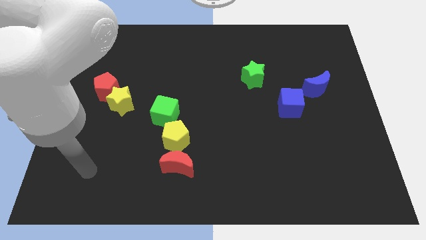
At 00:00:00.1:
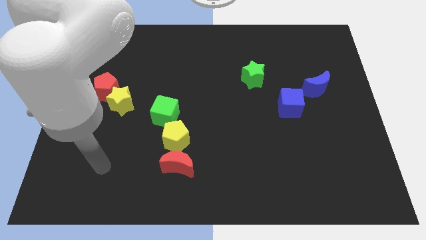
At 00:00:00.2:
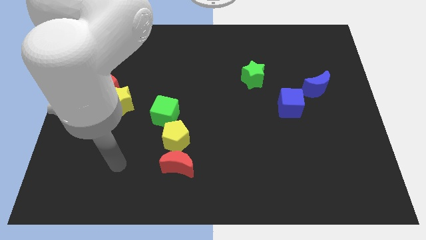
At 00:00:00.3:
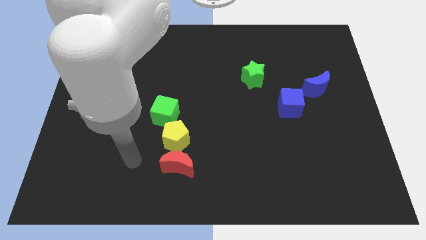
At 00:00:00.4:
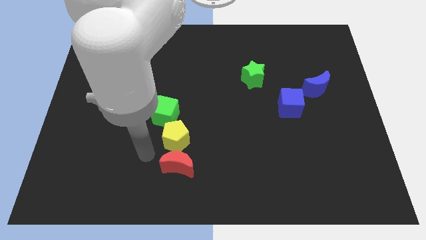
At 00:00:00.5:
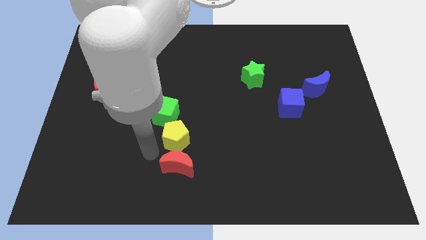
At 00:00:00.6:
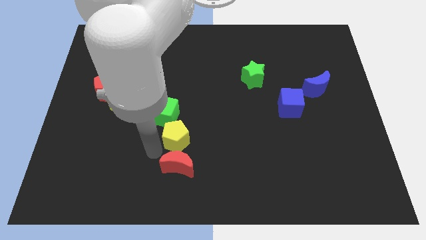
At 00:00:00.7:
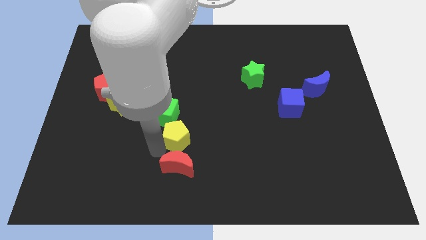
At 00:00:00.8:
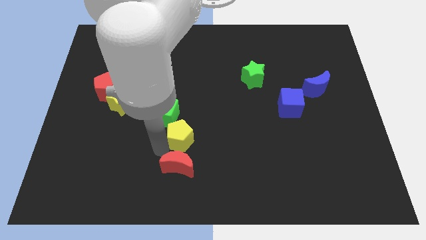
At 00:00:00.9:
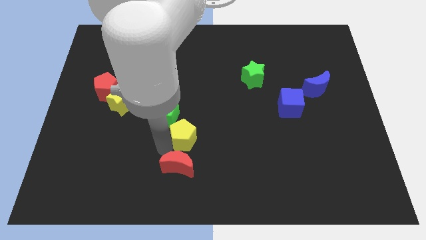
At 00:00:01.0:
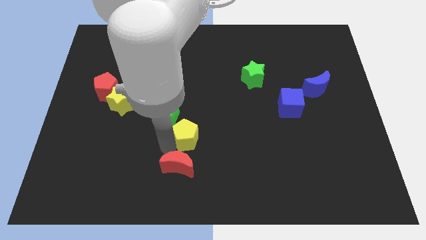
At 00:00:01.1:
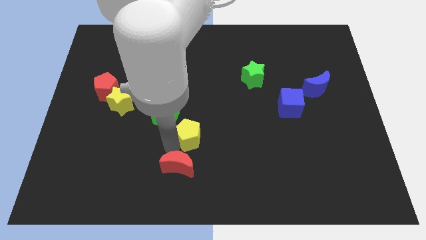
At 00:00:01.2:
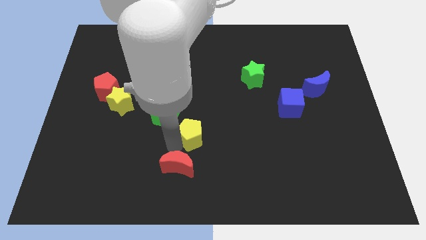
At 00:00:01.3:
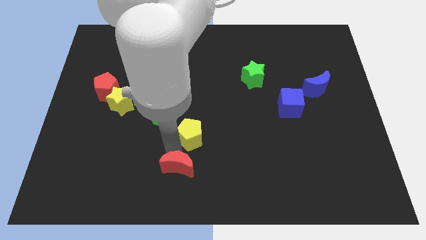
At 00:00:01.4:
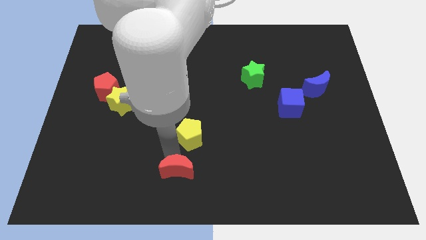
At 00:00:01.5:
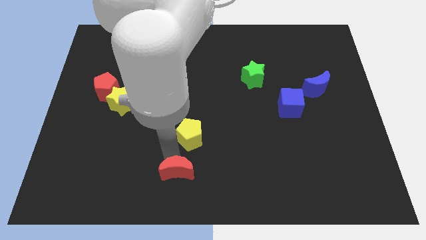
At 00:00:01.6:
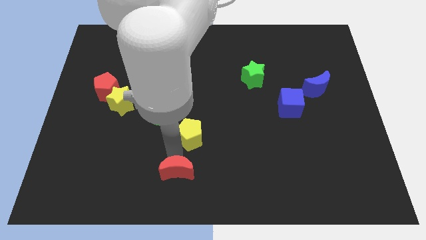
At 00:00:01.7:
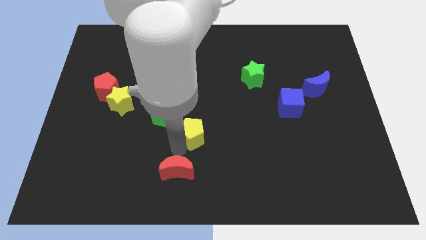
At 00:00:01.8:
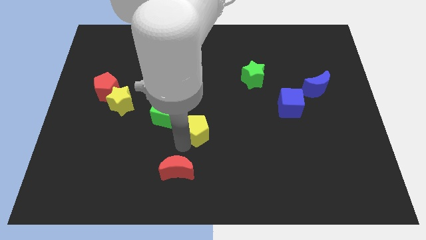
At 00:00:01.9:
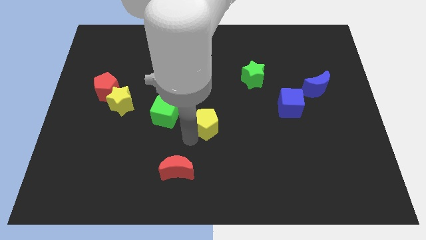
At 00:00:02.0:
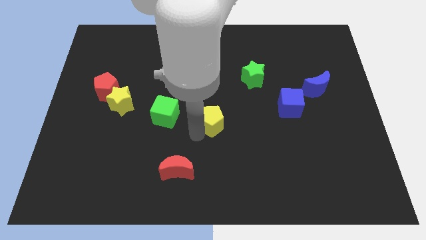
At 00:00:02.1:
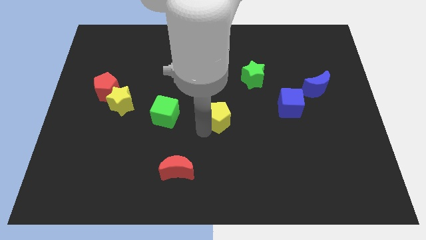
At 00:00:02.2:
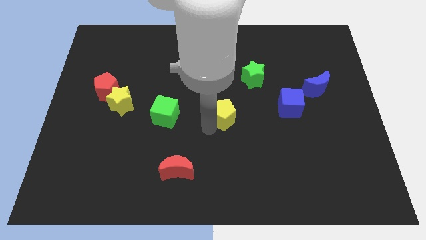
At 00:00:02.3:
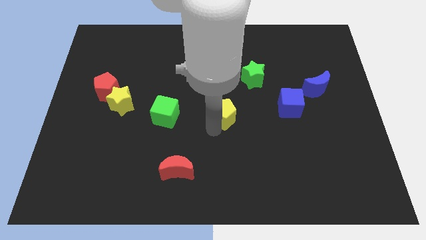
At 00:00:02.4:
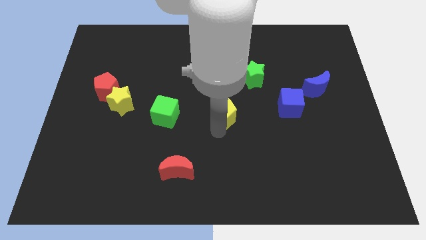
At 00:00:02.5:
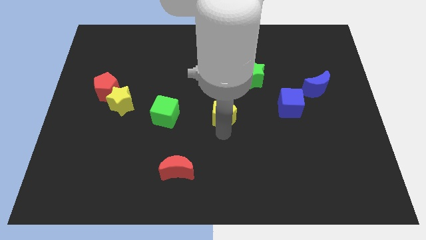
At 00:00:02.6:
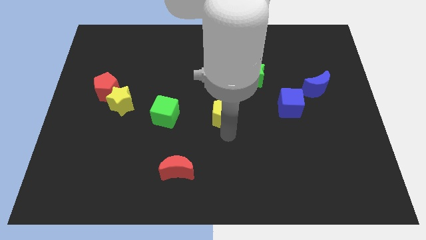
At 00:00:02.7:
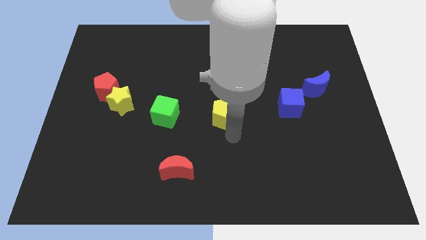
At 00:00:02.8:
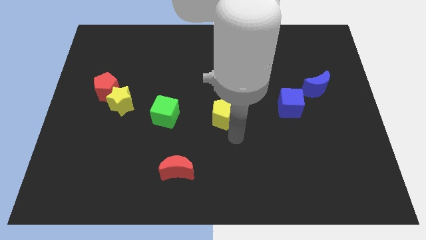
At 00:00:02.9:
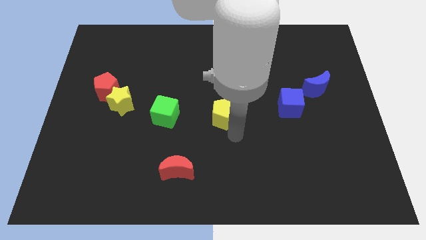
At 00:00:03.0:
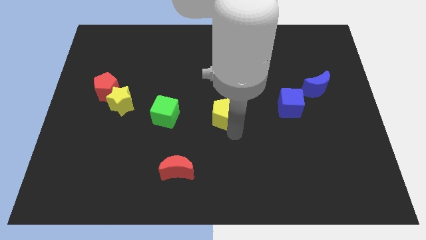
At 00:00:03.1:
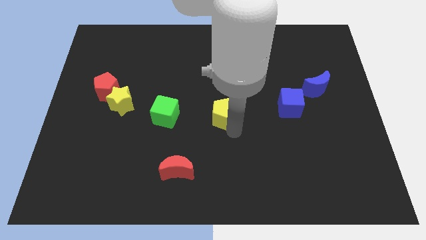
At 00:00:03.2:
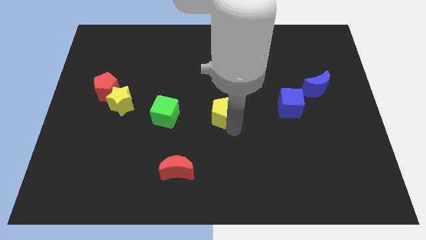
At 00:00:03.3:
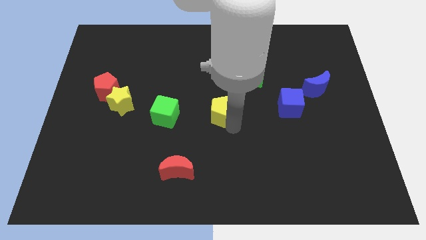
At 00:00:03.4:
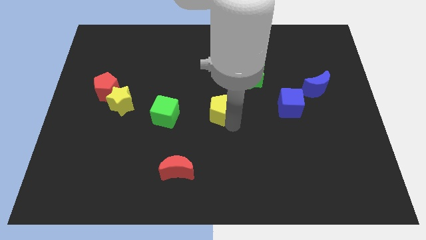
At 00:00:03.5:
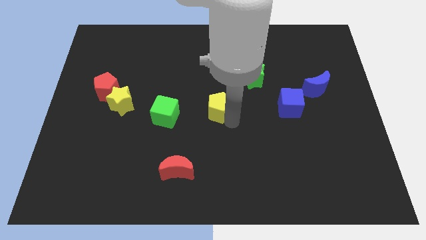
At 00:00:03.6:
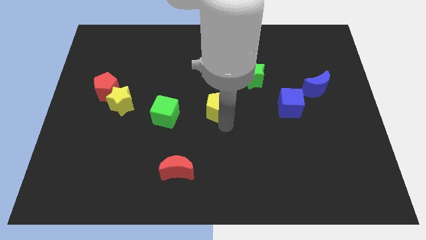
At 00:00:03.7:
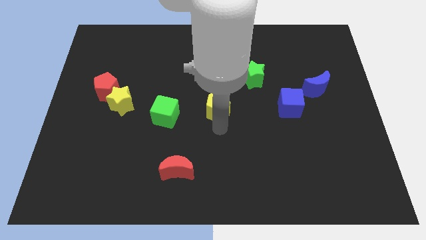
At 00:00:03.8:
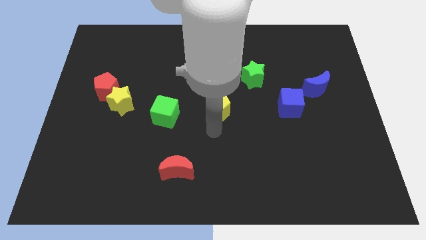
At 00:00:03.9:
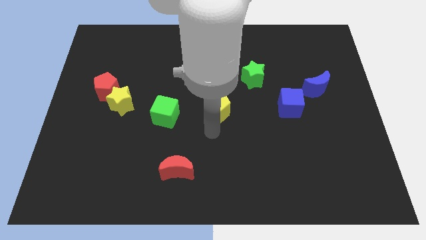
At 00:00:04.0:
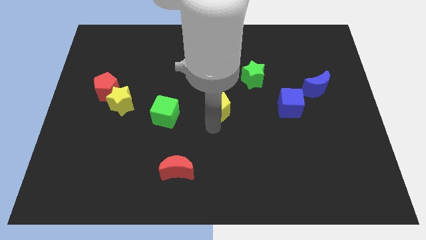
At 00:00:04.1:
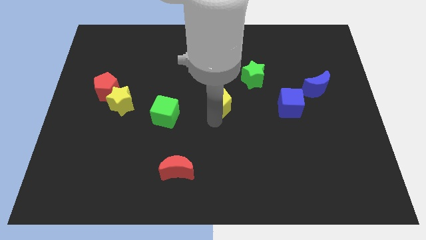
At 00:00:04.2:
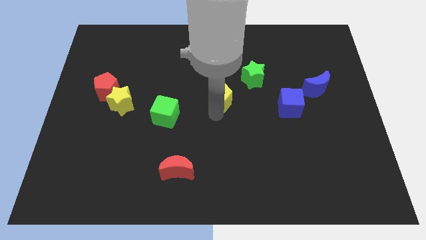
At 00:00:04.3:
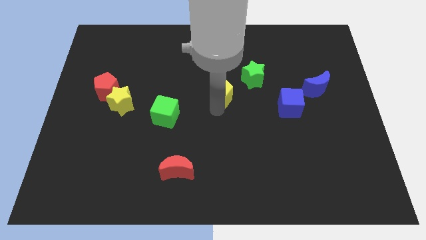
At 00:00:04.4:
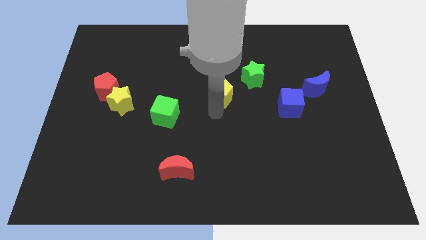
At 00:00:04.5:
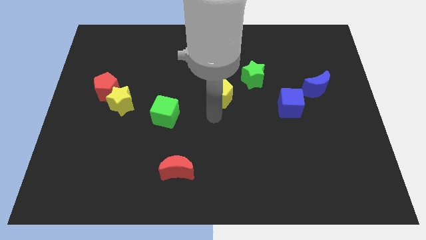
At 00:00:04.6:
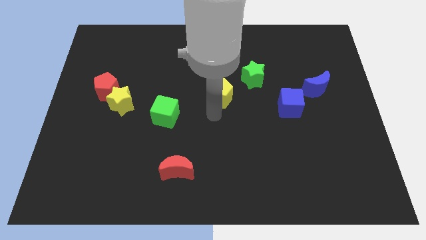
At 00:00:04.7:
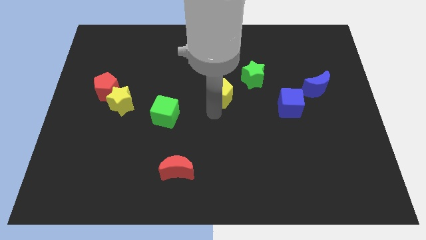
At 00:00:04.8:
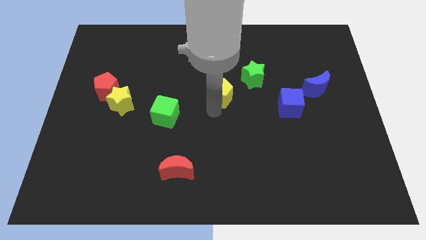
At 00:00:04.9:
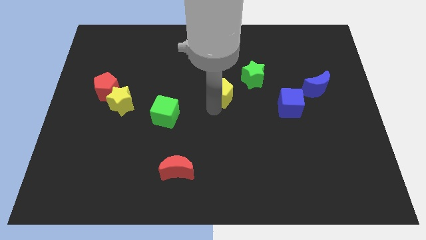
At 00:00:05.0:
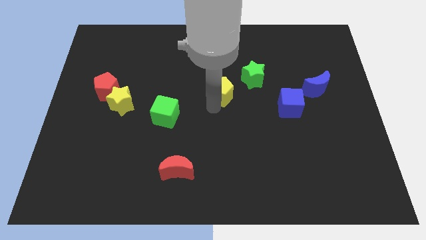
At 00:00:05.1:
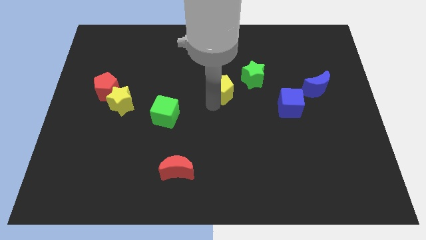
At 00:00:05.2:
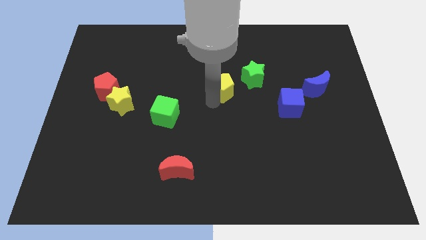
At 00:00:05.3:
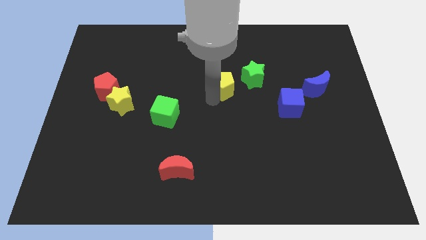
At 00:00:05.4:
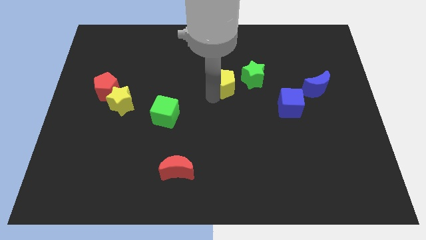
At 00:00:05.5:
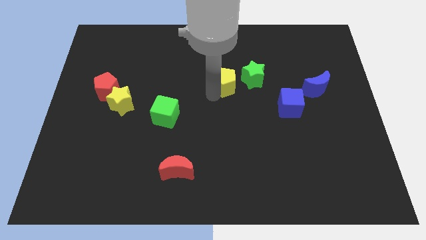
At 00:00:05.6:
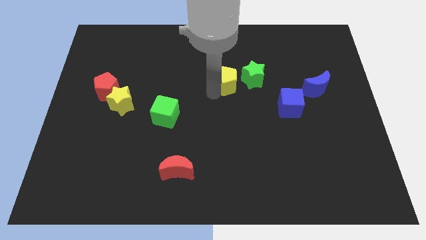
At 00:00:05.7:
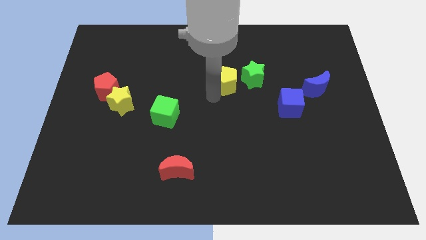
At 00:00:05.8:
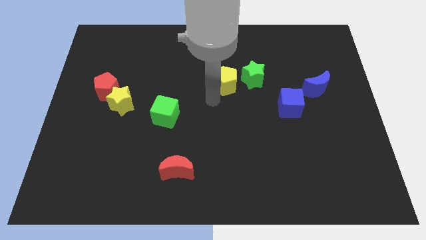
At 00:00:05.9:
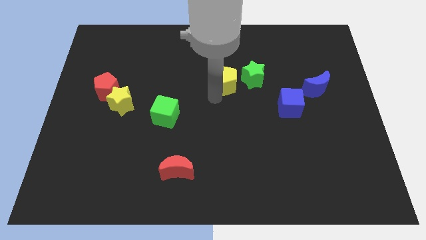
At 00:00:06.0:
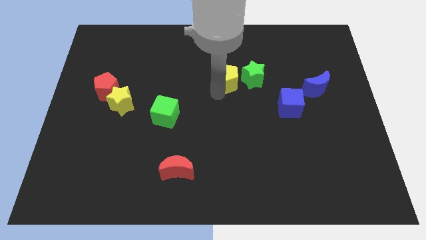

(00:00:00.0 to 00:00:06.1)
move the yellow pentagon up and right diagonally

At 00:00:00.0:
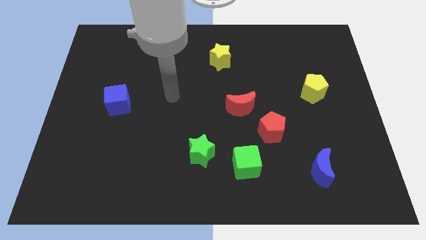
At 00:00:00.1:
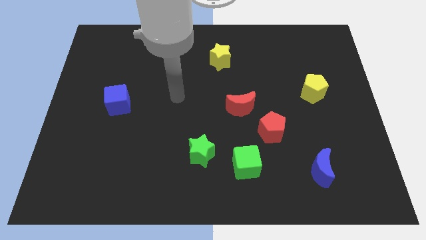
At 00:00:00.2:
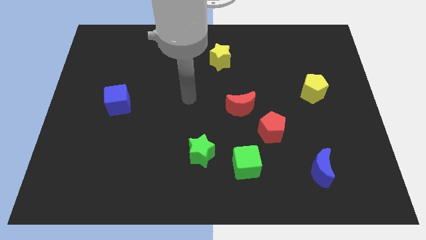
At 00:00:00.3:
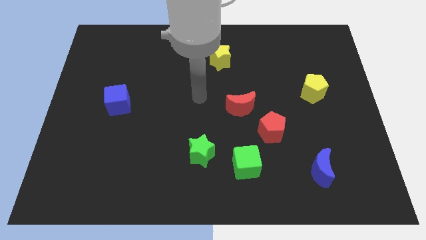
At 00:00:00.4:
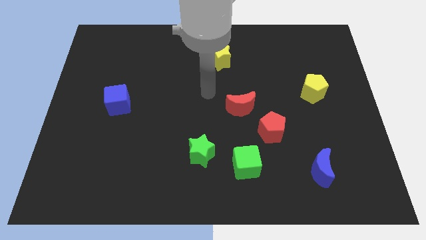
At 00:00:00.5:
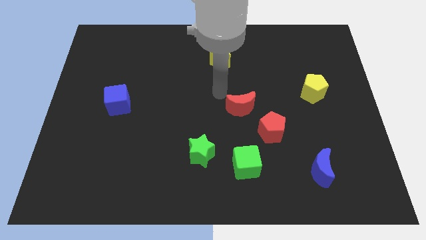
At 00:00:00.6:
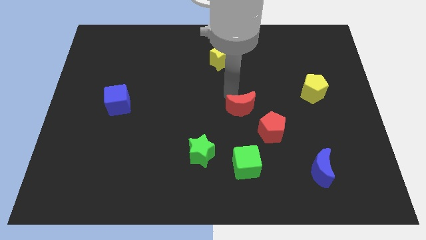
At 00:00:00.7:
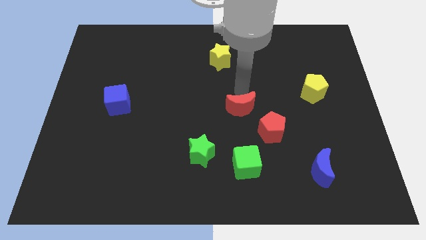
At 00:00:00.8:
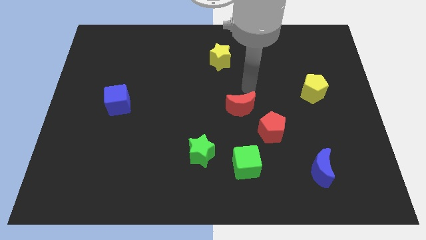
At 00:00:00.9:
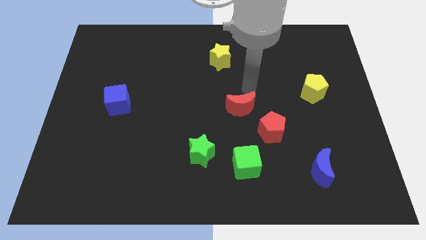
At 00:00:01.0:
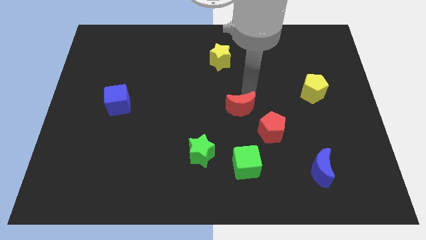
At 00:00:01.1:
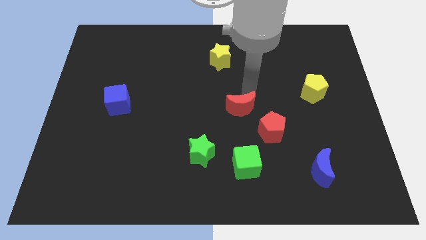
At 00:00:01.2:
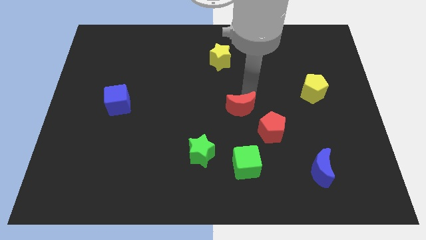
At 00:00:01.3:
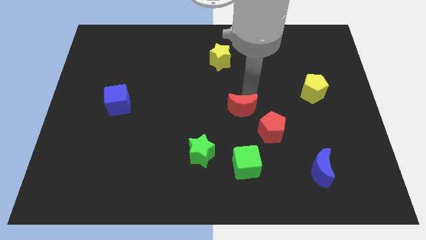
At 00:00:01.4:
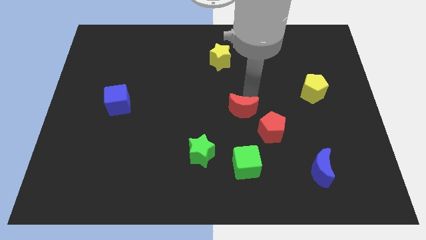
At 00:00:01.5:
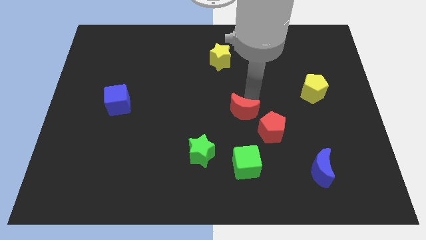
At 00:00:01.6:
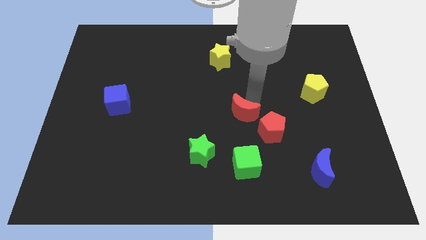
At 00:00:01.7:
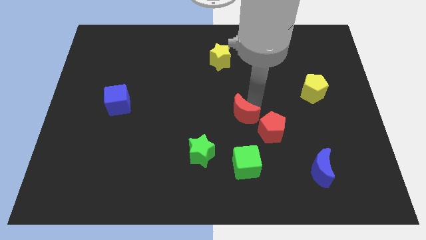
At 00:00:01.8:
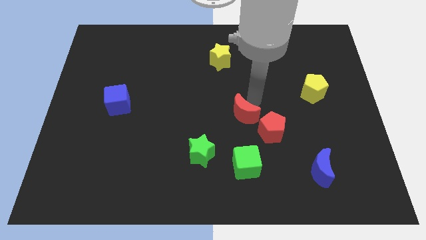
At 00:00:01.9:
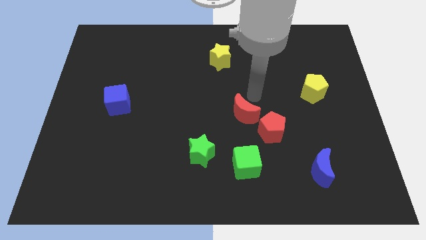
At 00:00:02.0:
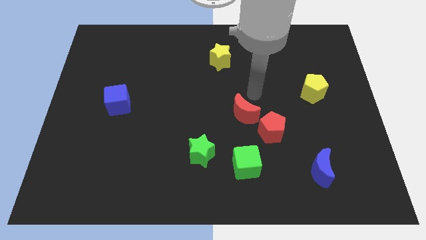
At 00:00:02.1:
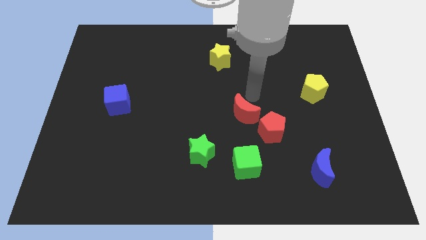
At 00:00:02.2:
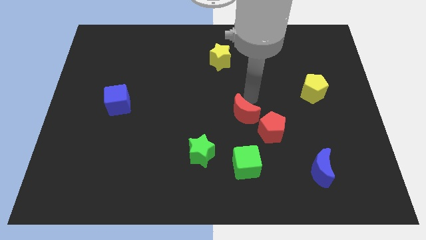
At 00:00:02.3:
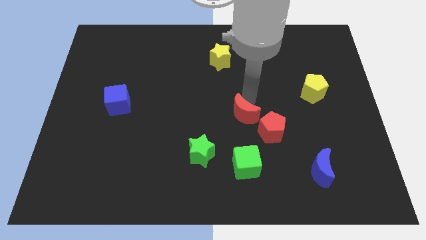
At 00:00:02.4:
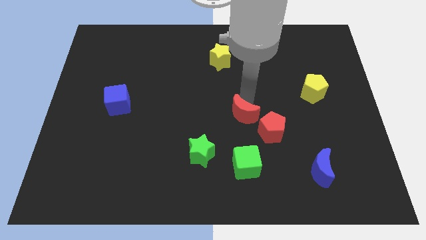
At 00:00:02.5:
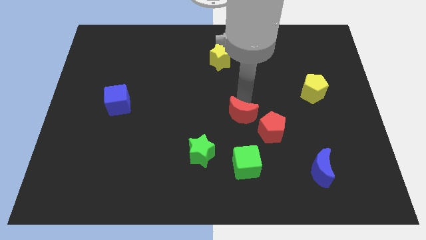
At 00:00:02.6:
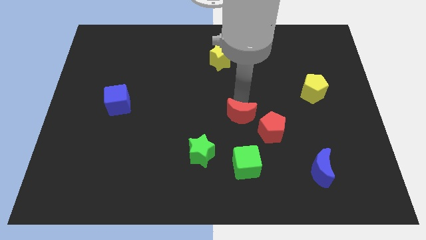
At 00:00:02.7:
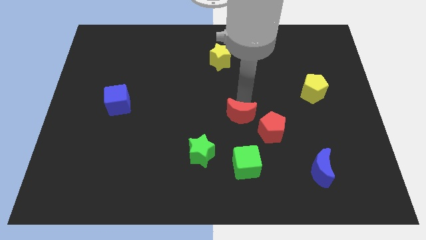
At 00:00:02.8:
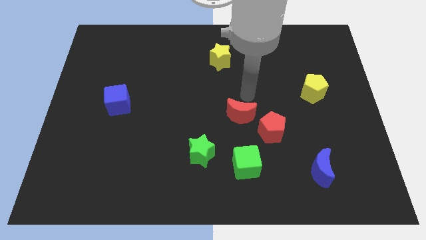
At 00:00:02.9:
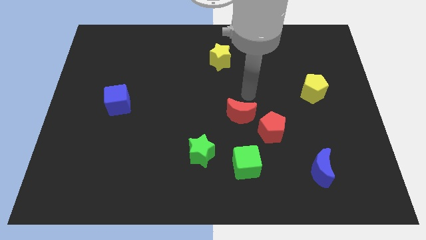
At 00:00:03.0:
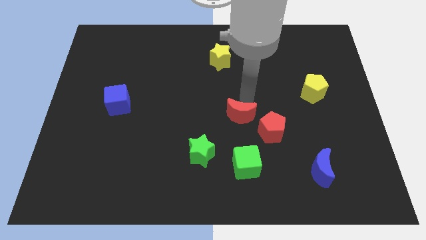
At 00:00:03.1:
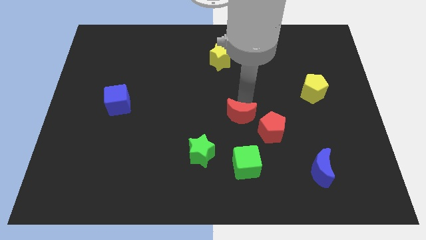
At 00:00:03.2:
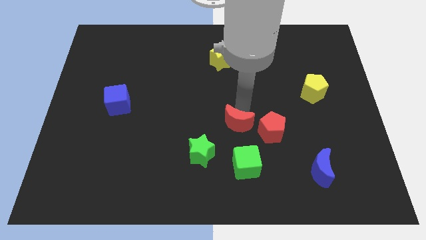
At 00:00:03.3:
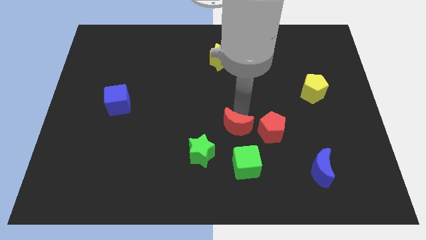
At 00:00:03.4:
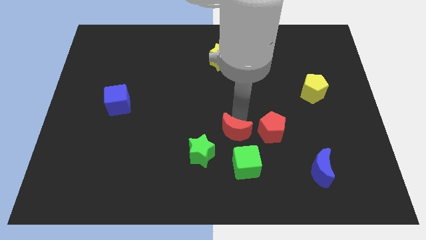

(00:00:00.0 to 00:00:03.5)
move the red moon a little bit down
